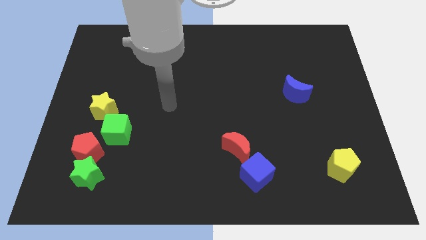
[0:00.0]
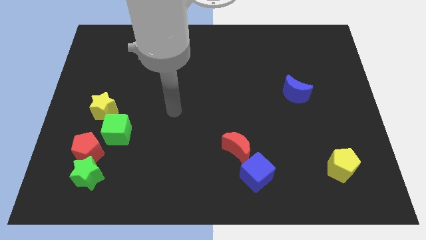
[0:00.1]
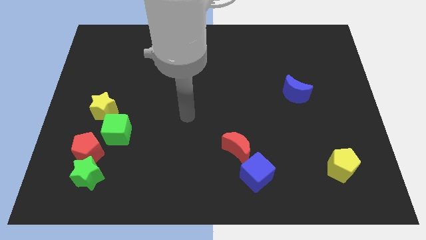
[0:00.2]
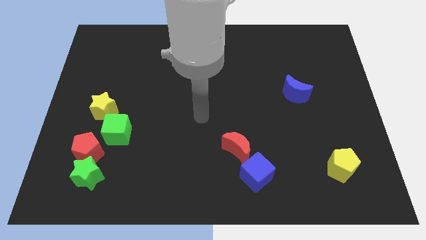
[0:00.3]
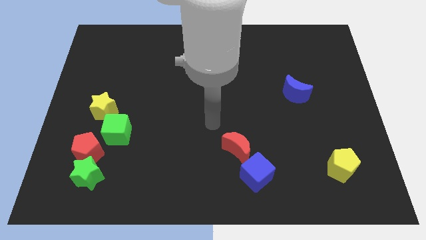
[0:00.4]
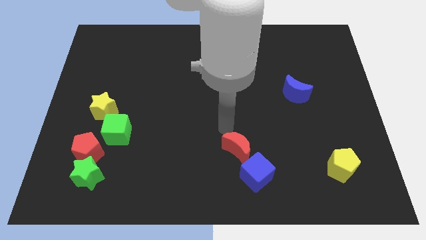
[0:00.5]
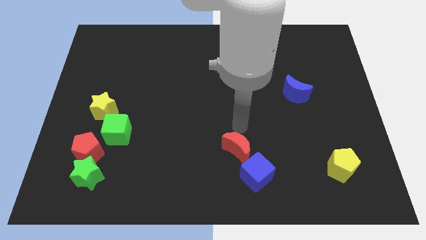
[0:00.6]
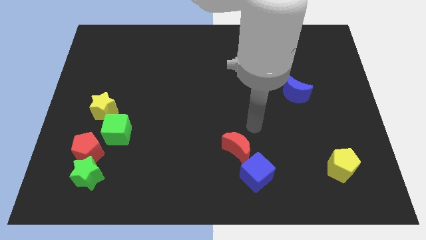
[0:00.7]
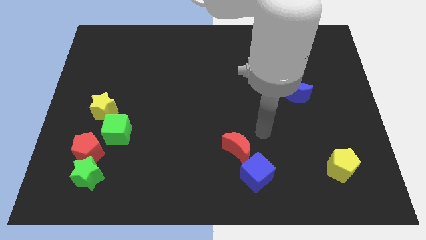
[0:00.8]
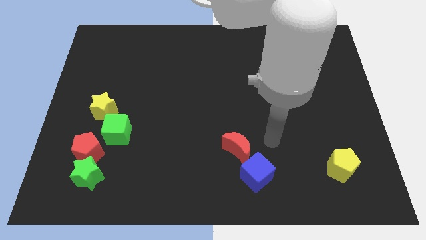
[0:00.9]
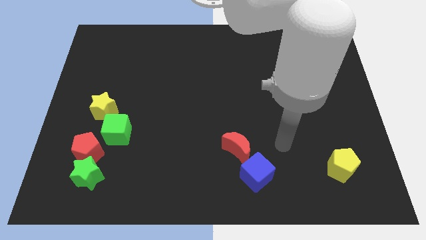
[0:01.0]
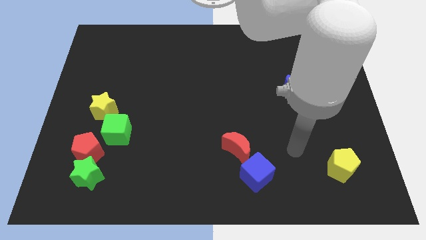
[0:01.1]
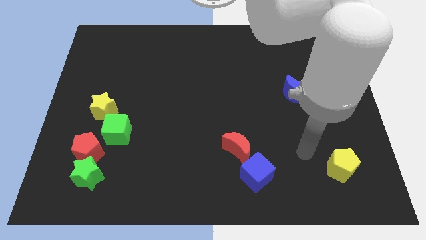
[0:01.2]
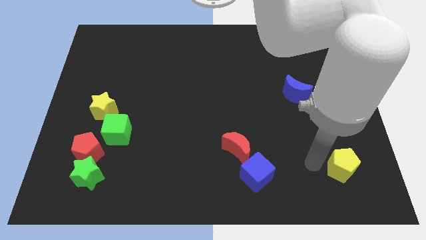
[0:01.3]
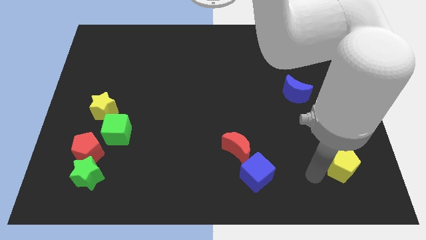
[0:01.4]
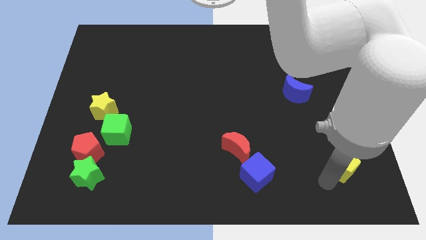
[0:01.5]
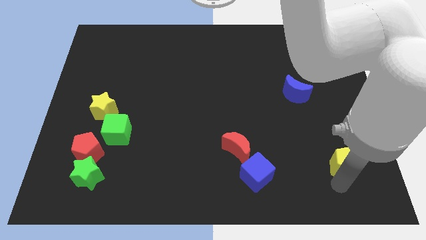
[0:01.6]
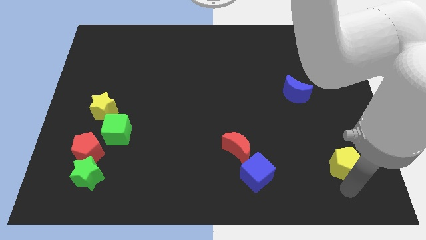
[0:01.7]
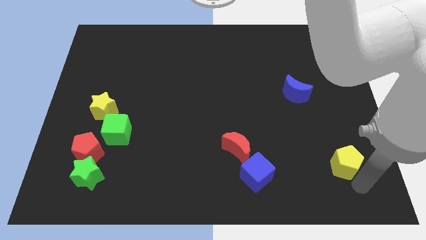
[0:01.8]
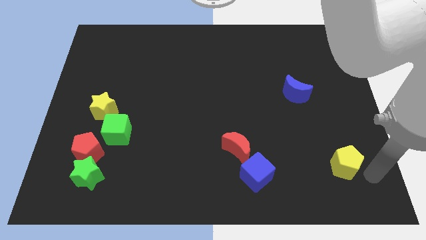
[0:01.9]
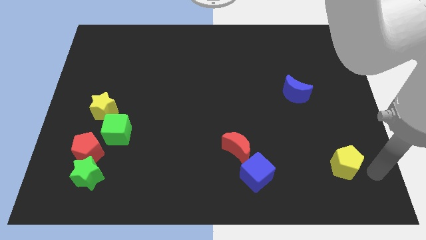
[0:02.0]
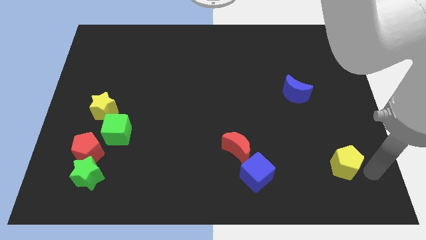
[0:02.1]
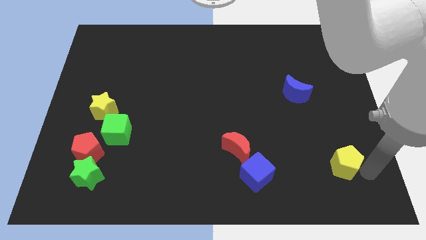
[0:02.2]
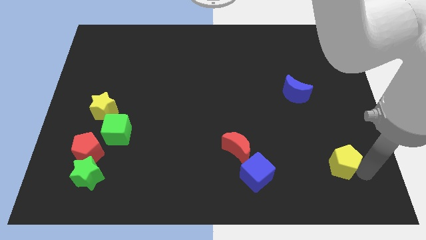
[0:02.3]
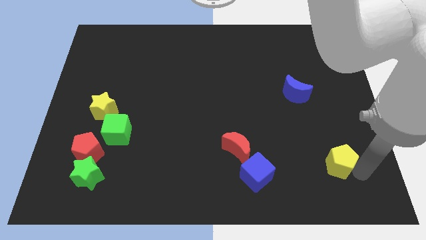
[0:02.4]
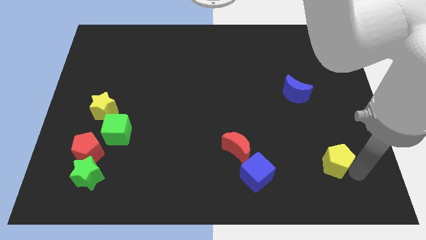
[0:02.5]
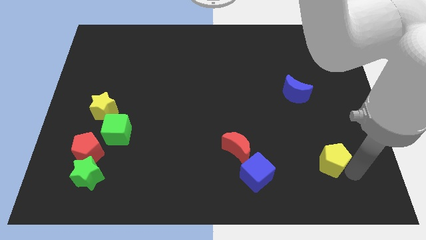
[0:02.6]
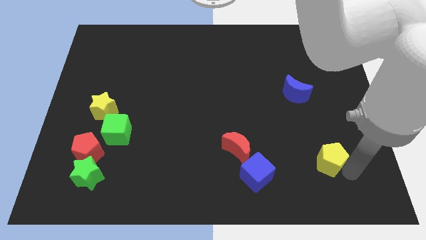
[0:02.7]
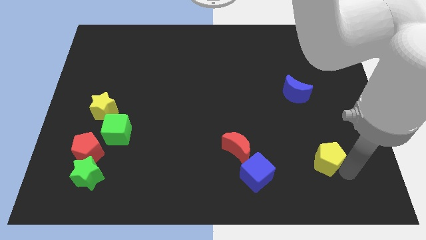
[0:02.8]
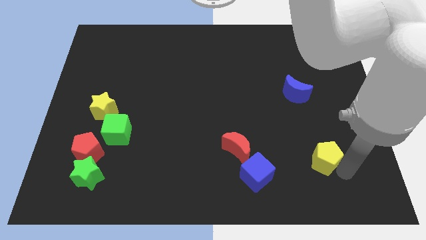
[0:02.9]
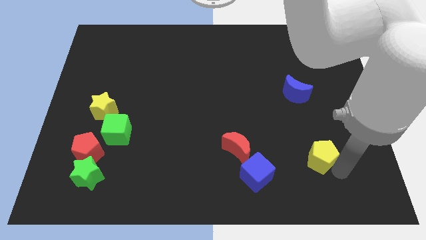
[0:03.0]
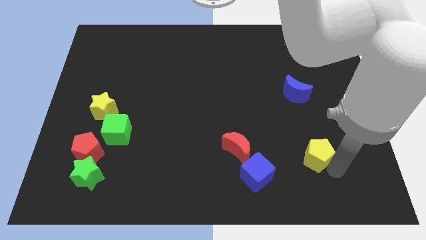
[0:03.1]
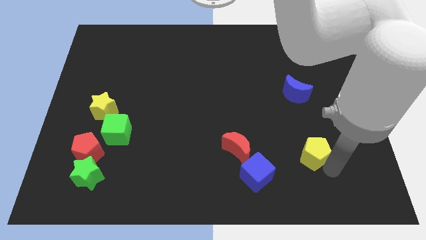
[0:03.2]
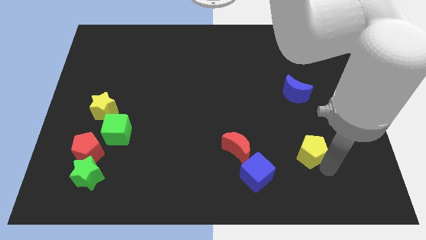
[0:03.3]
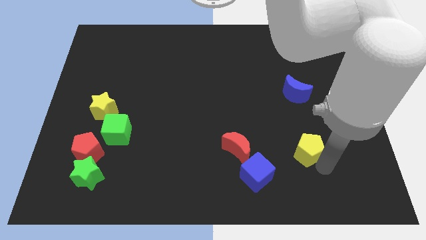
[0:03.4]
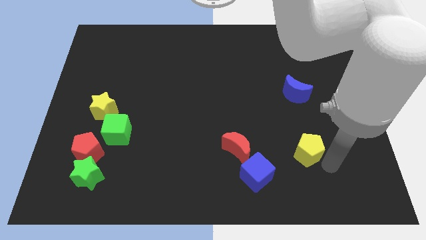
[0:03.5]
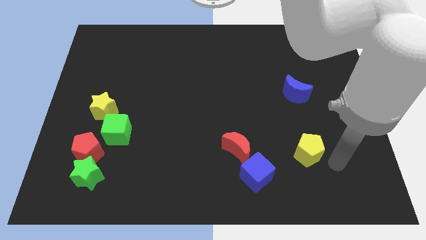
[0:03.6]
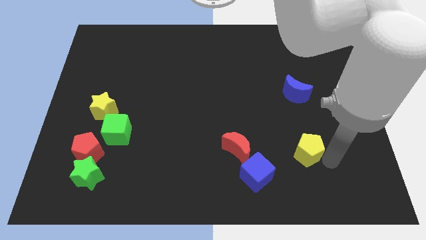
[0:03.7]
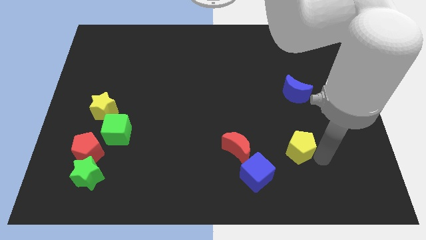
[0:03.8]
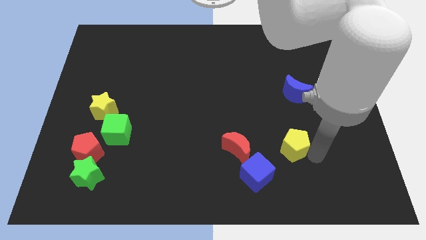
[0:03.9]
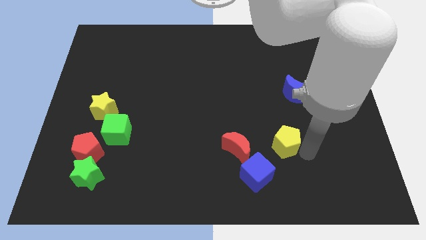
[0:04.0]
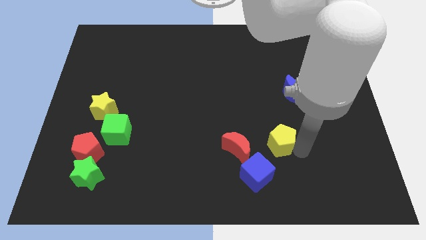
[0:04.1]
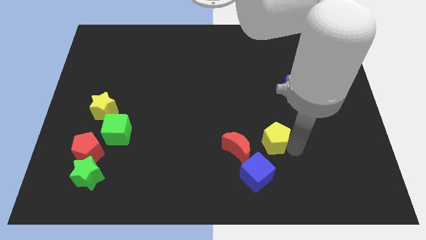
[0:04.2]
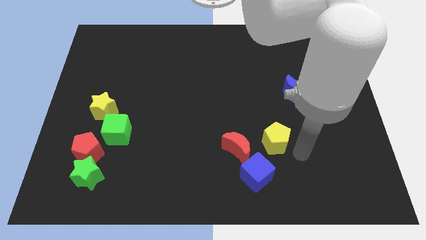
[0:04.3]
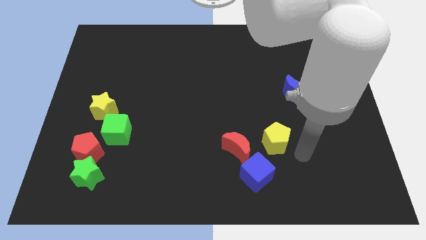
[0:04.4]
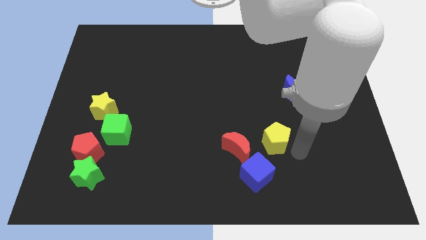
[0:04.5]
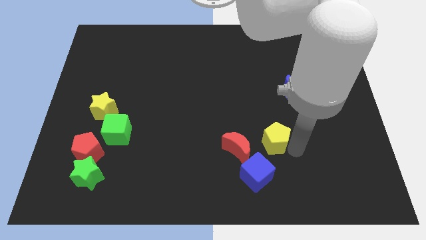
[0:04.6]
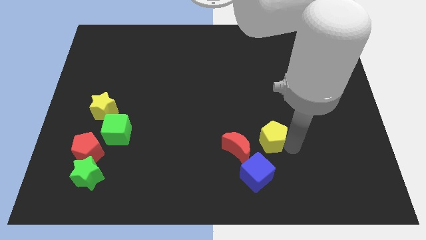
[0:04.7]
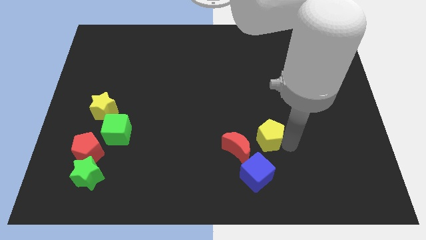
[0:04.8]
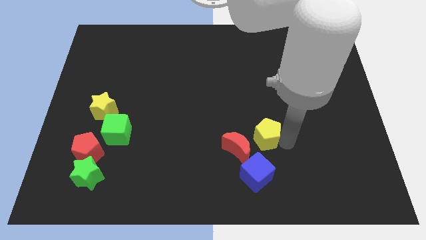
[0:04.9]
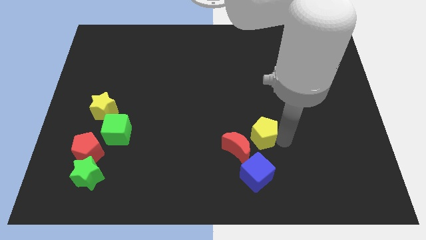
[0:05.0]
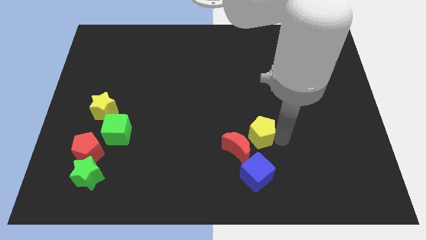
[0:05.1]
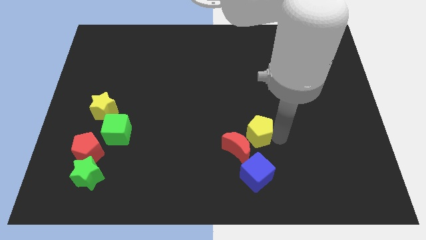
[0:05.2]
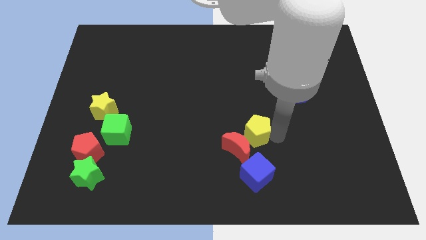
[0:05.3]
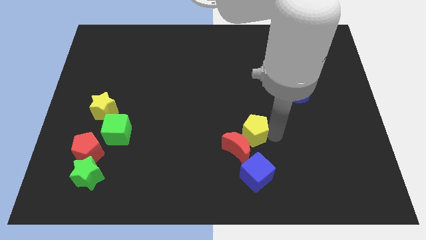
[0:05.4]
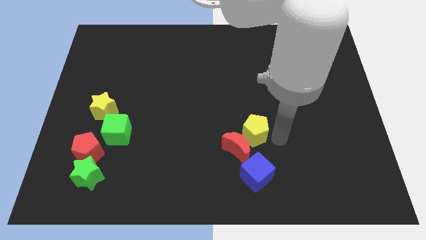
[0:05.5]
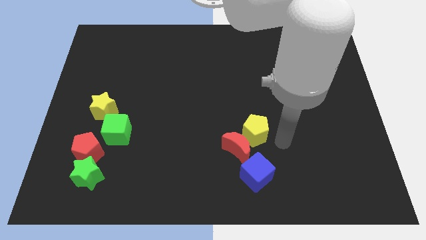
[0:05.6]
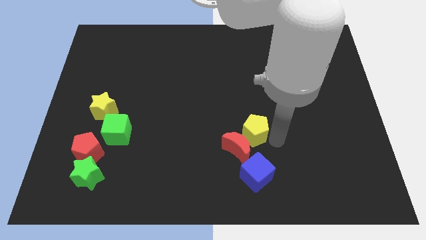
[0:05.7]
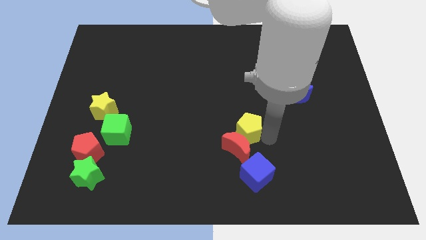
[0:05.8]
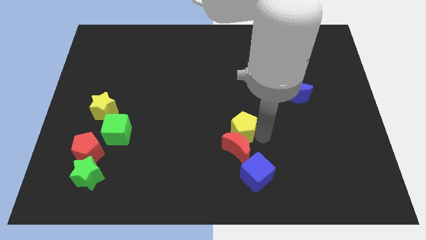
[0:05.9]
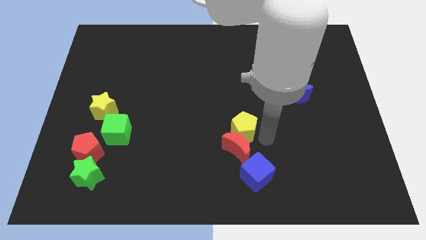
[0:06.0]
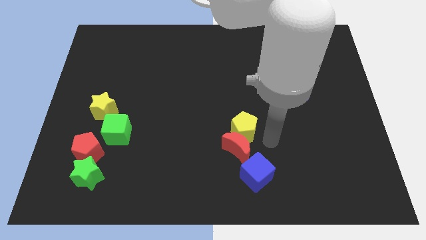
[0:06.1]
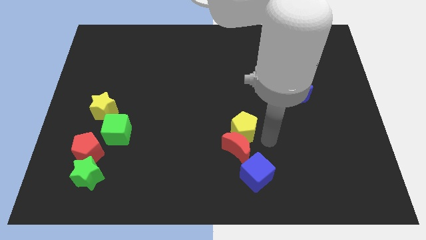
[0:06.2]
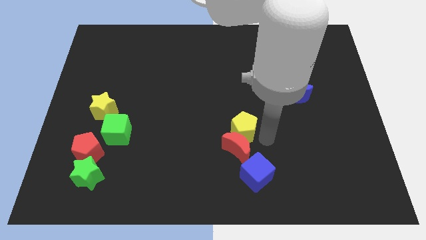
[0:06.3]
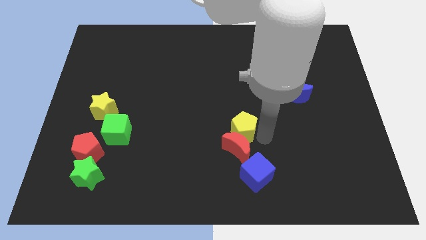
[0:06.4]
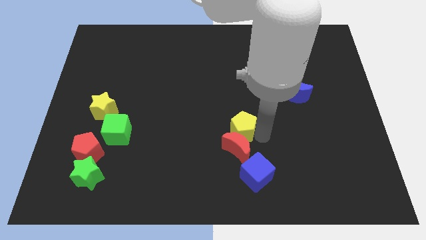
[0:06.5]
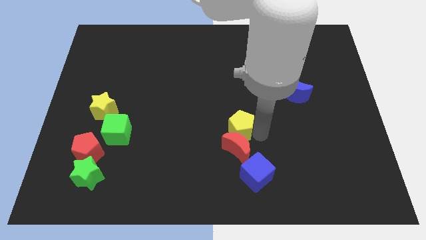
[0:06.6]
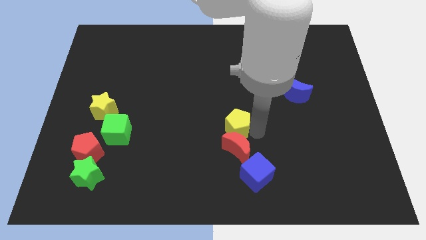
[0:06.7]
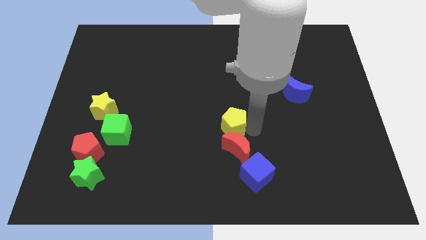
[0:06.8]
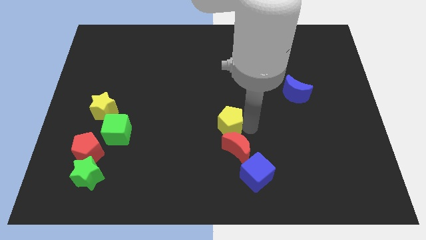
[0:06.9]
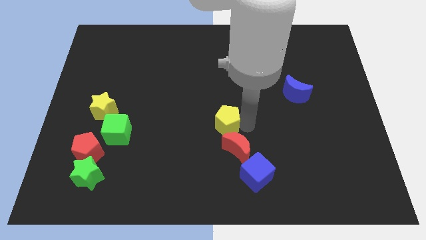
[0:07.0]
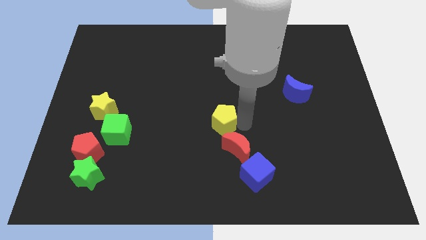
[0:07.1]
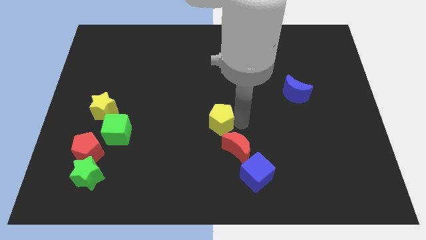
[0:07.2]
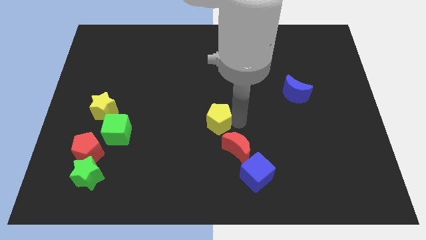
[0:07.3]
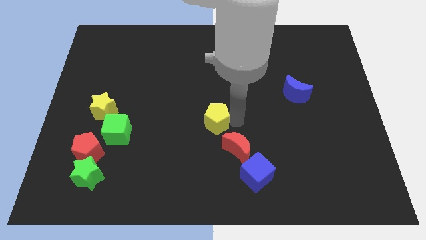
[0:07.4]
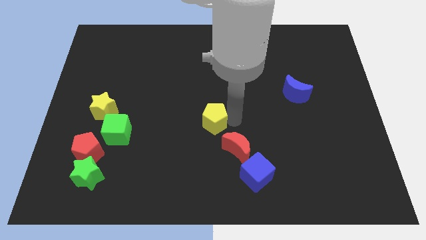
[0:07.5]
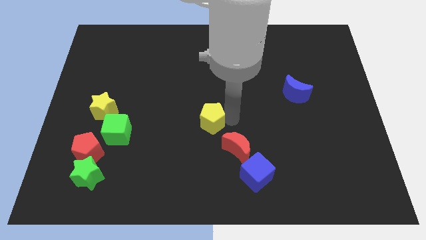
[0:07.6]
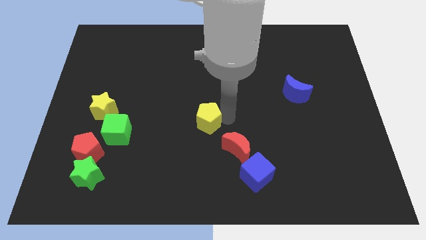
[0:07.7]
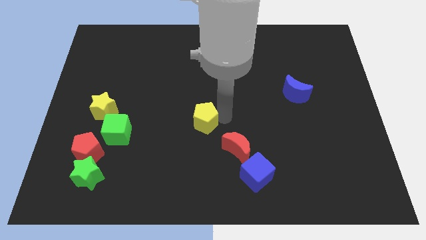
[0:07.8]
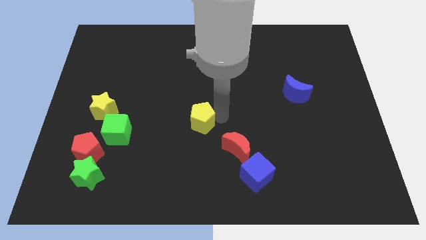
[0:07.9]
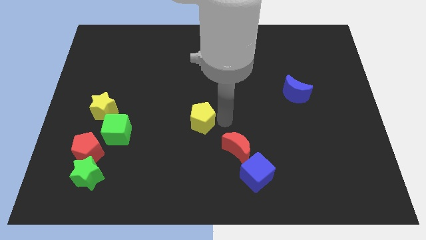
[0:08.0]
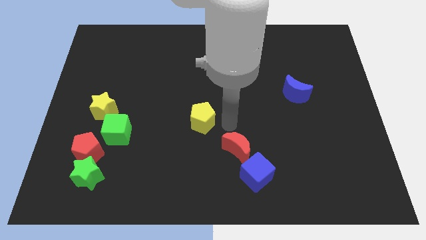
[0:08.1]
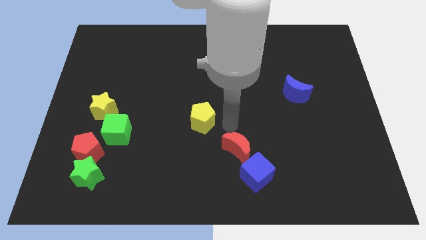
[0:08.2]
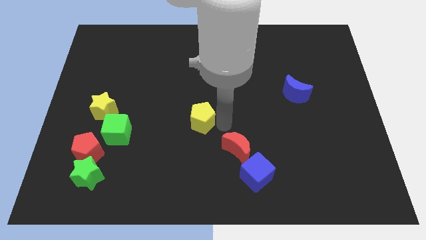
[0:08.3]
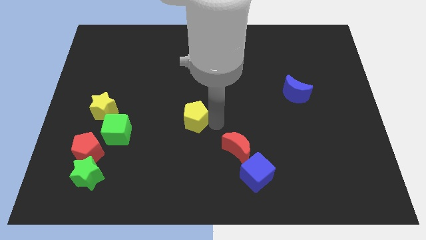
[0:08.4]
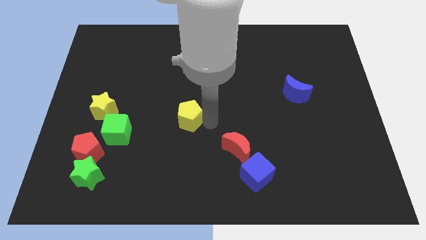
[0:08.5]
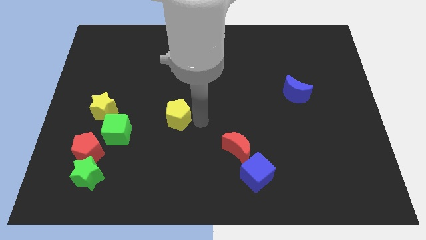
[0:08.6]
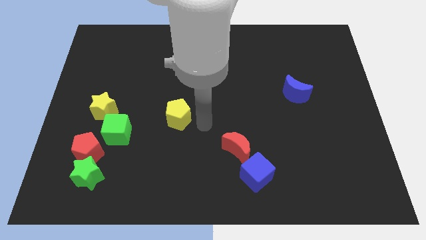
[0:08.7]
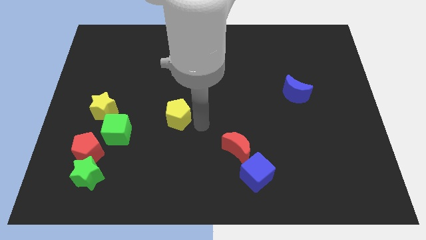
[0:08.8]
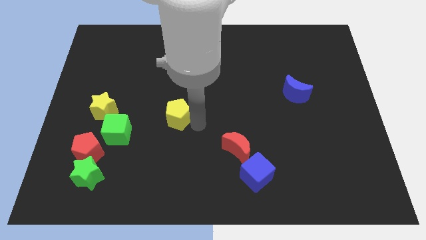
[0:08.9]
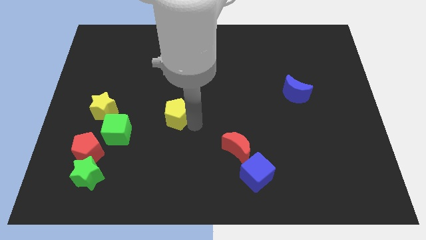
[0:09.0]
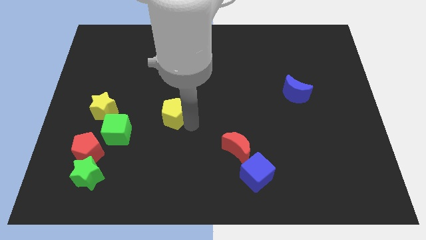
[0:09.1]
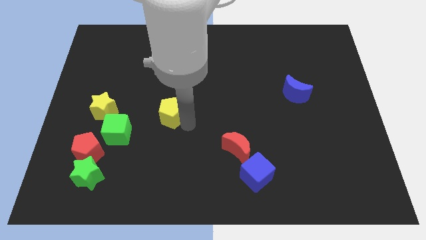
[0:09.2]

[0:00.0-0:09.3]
move the yellow pentagon just right of the yellow star
